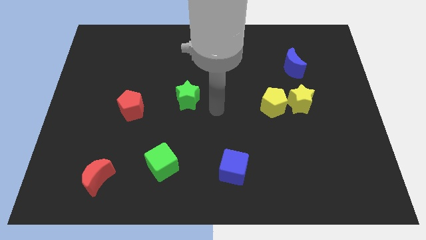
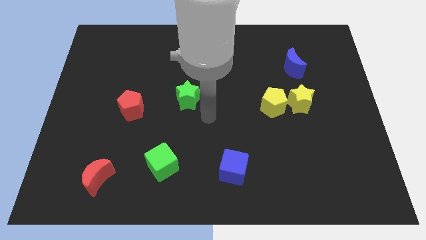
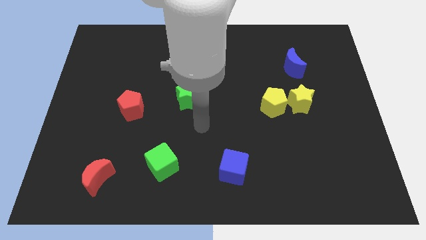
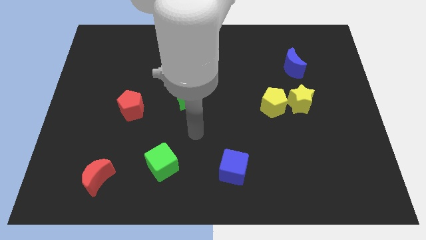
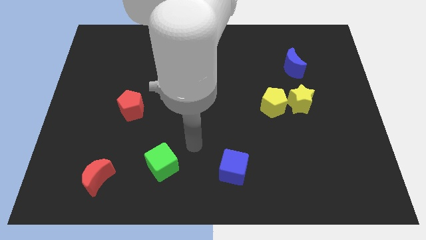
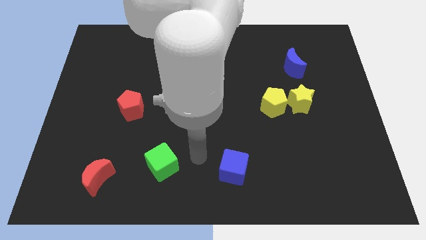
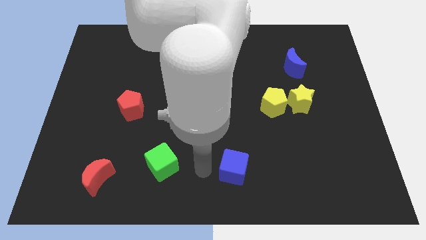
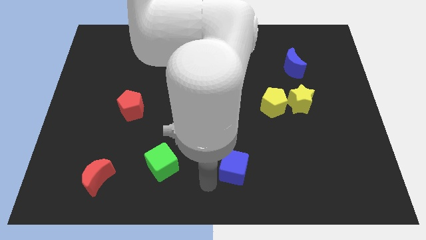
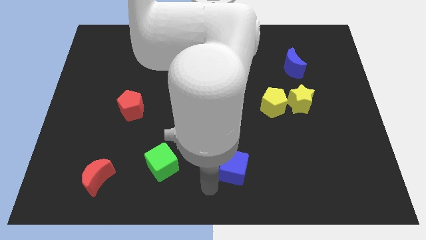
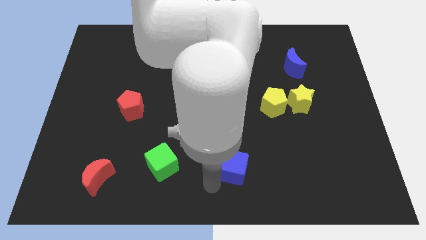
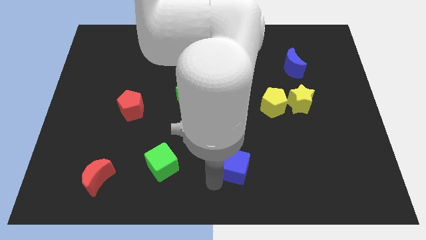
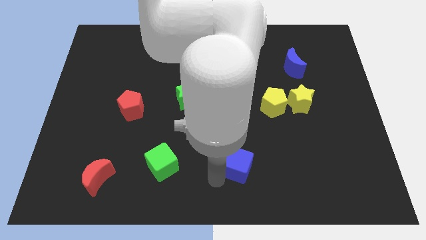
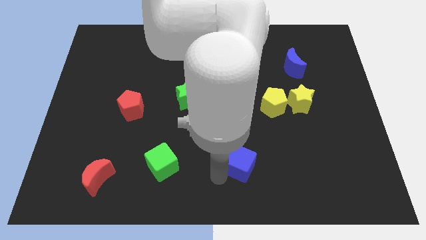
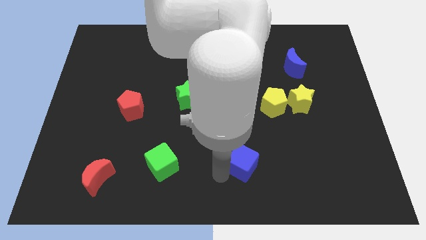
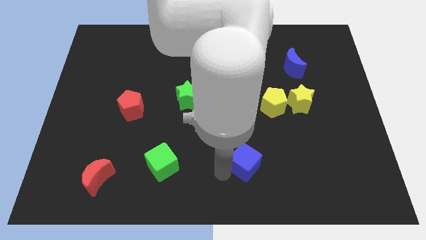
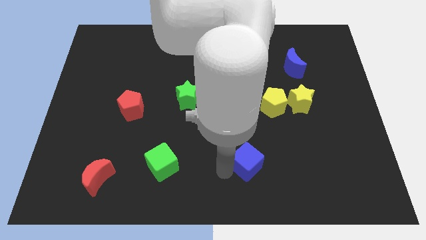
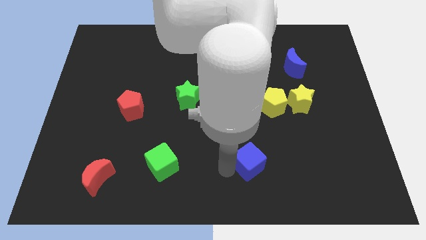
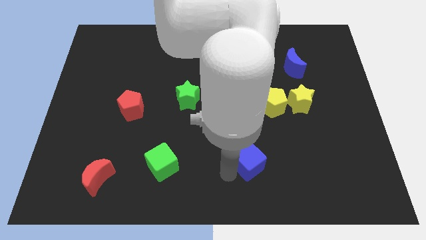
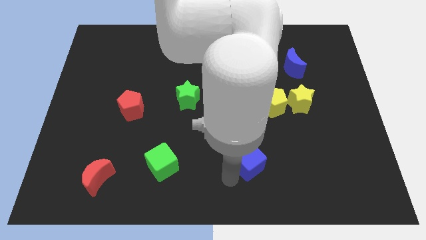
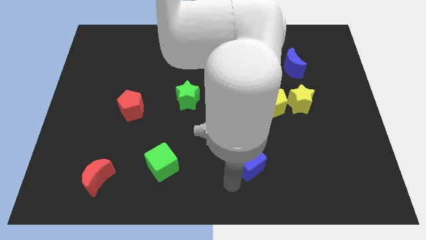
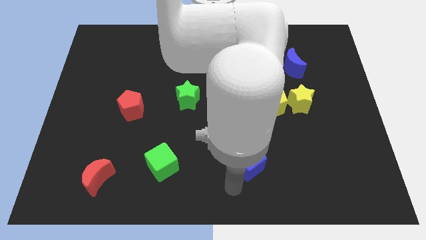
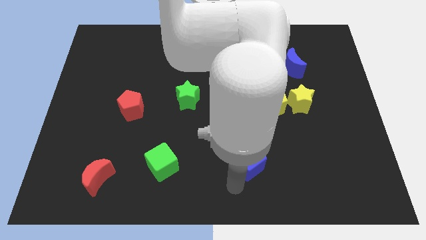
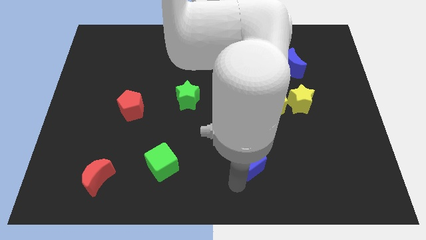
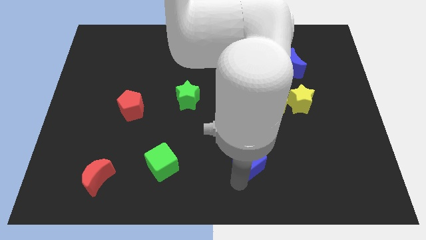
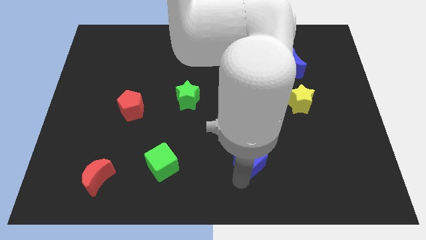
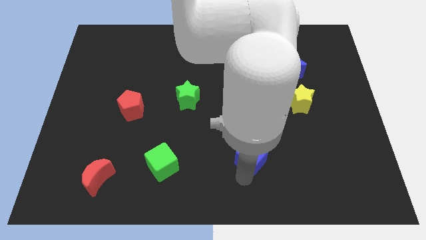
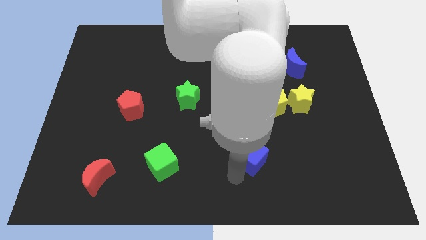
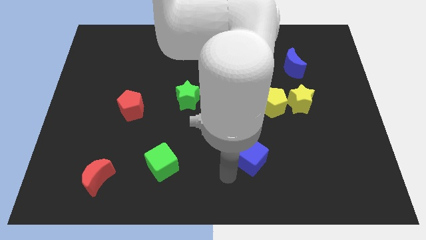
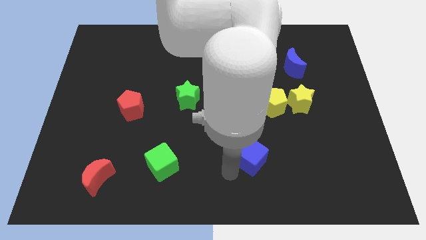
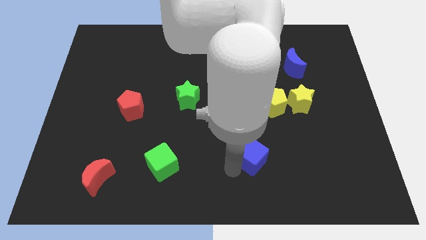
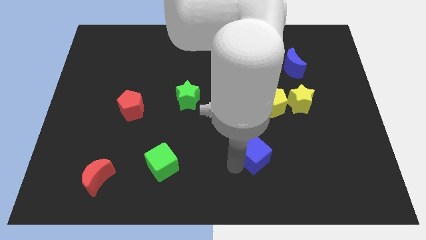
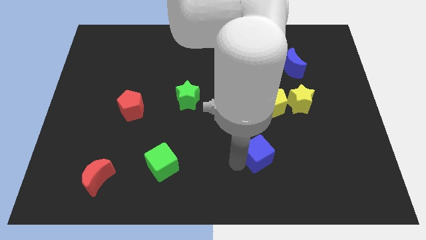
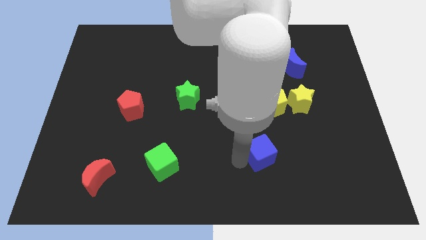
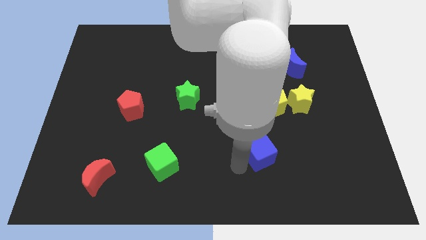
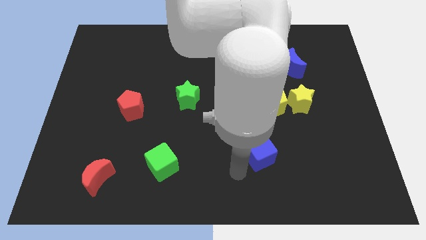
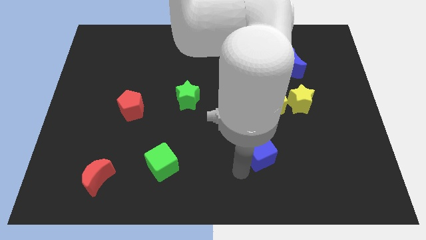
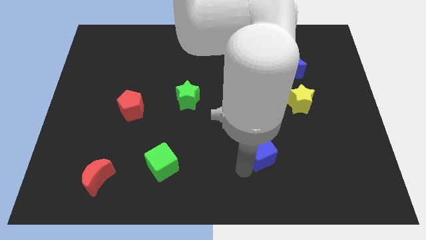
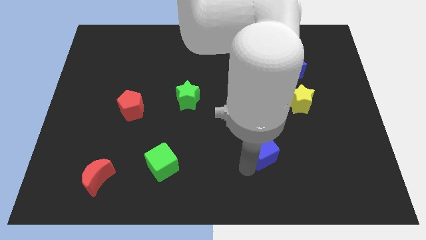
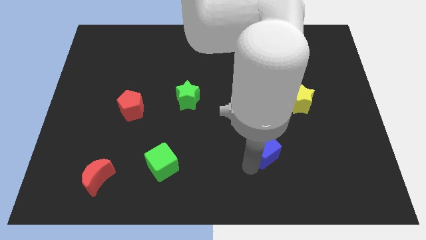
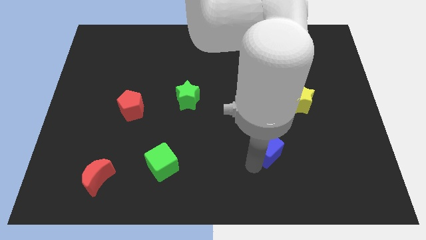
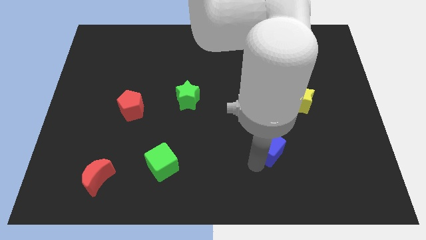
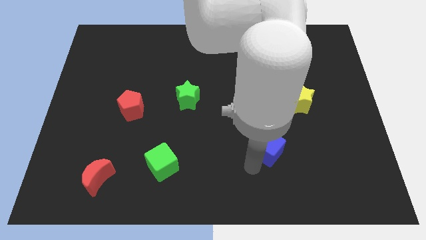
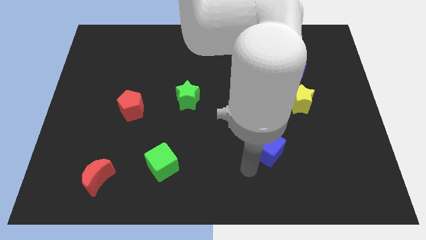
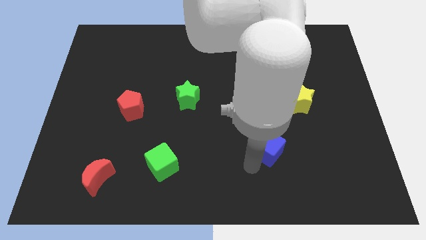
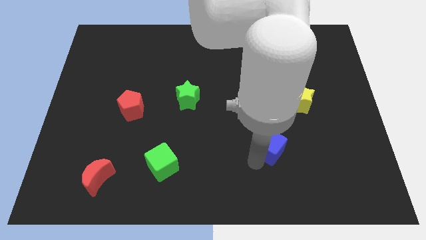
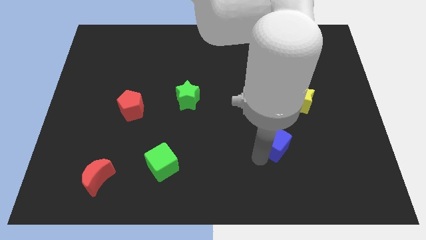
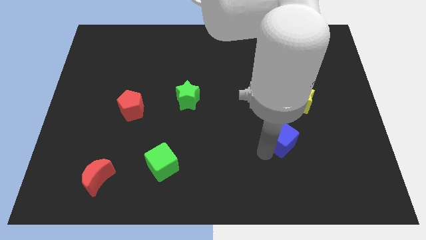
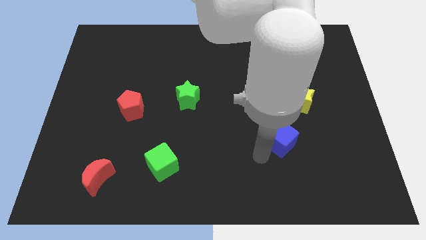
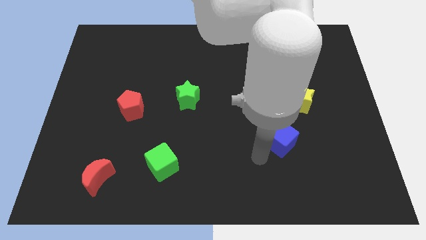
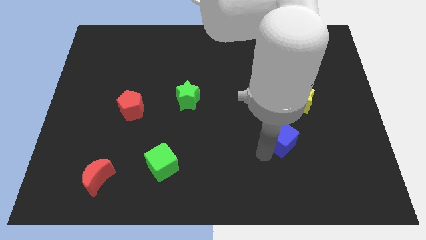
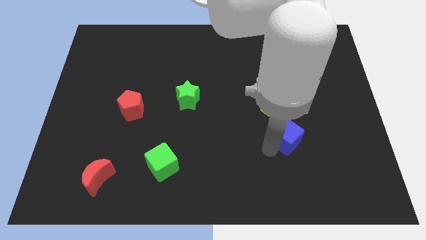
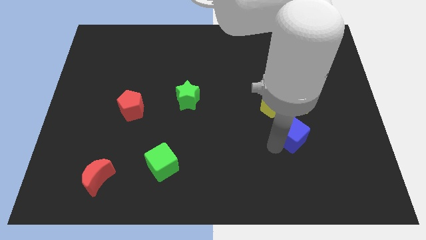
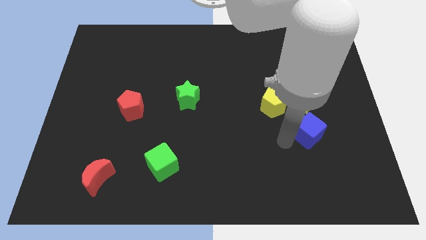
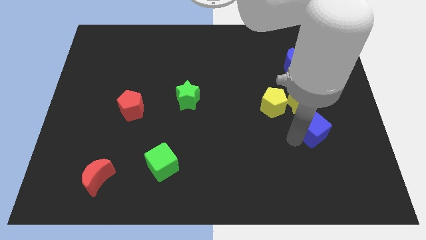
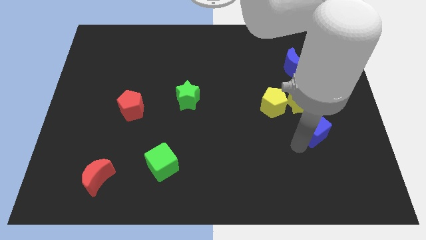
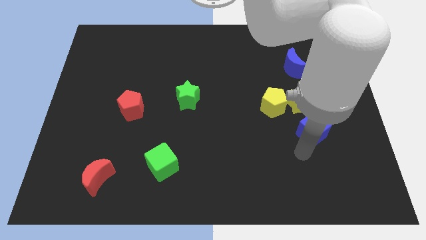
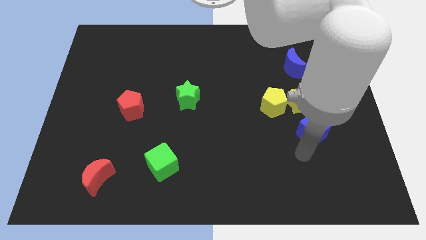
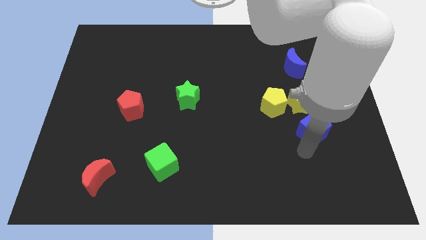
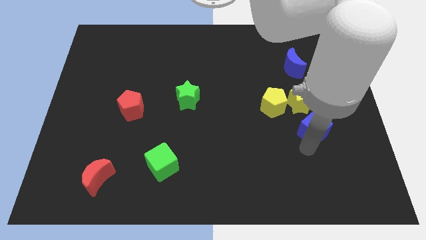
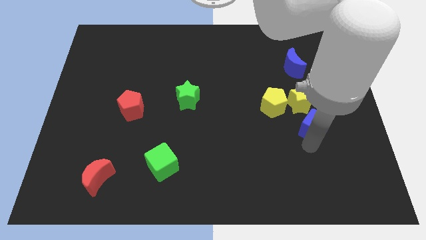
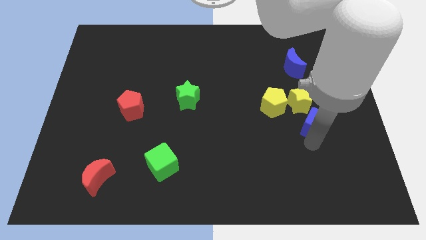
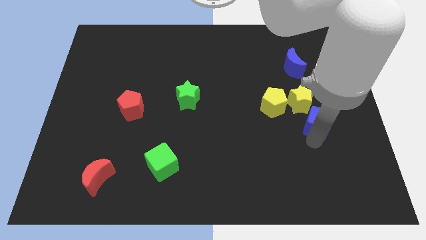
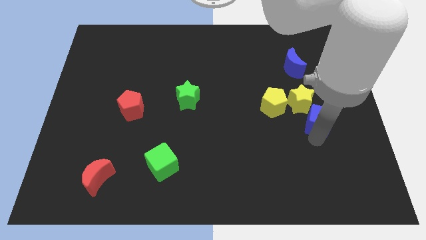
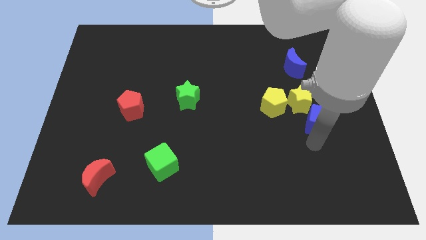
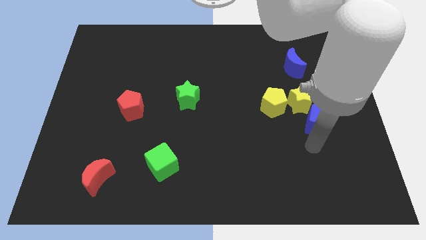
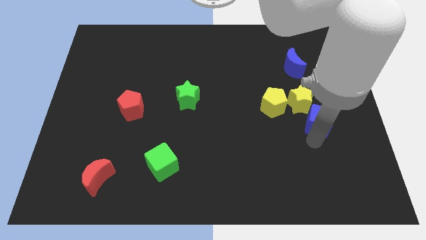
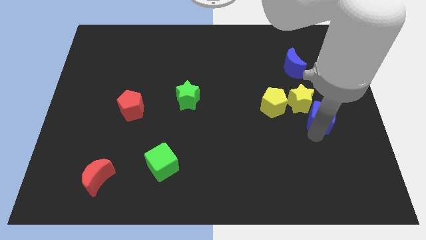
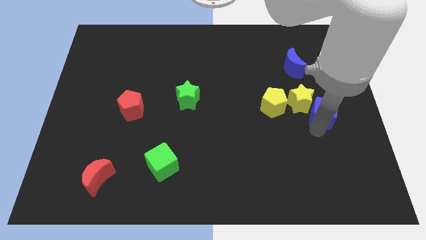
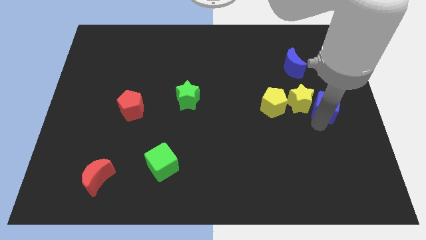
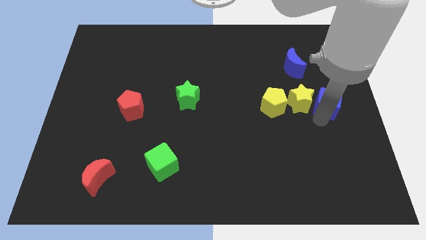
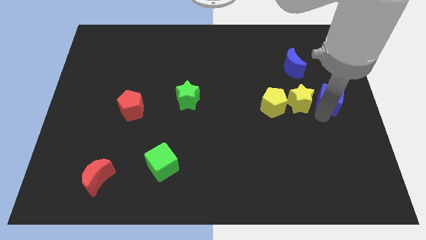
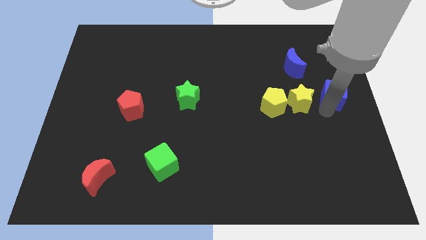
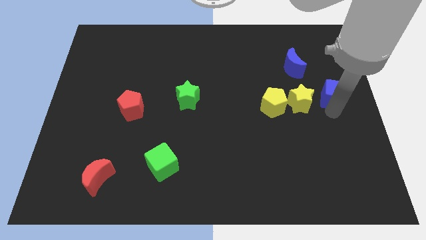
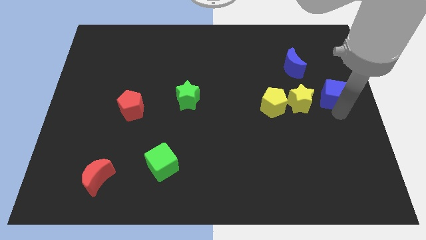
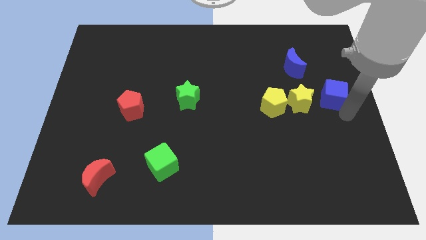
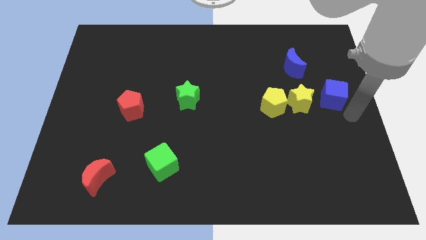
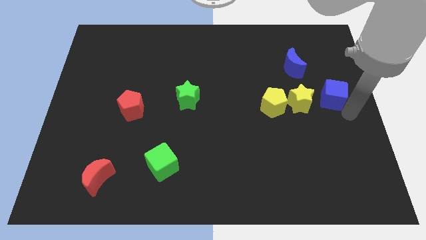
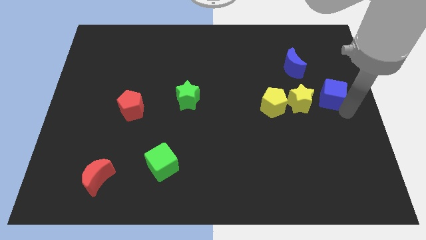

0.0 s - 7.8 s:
move the blue cube to the bottom right side of the blue moon
